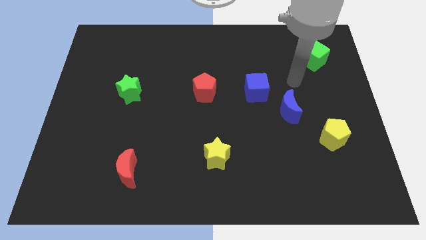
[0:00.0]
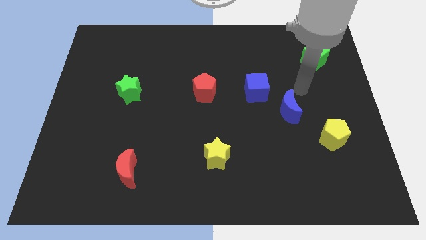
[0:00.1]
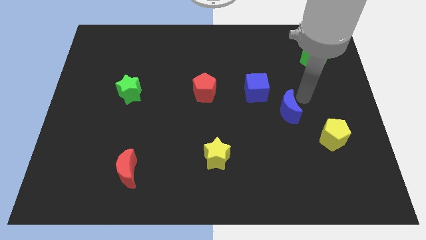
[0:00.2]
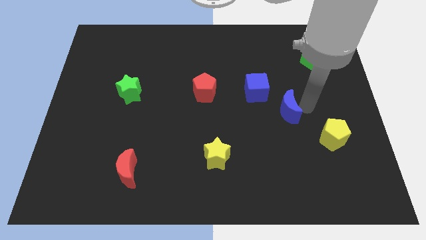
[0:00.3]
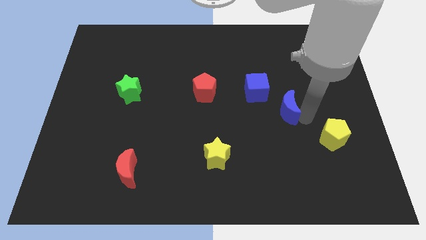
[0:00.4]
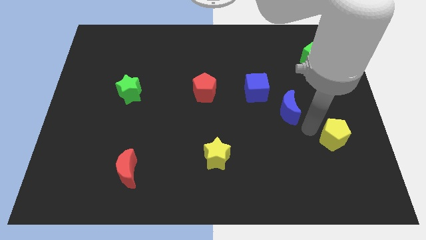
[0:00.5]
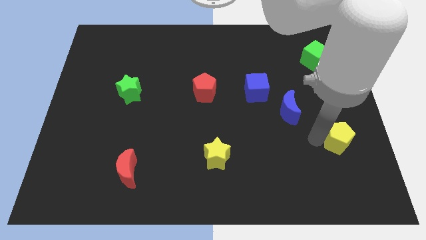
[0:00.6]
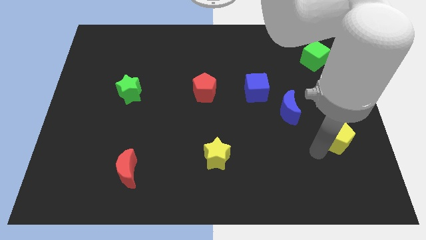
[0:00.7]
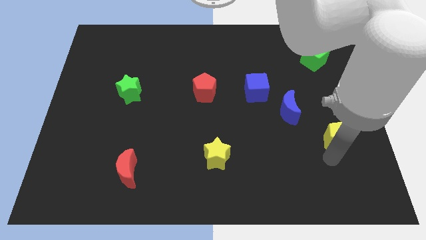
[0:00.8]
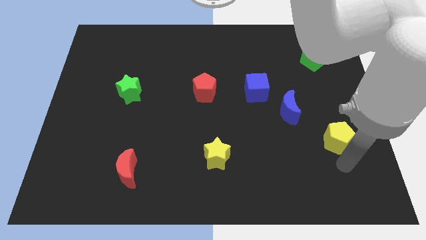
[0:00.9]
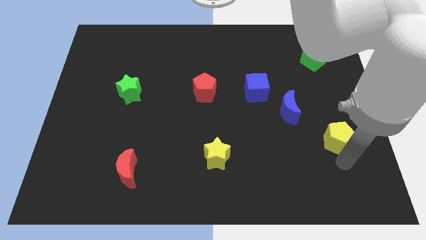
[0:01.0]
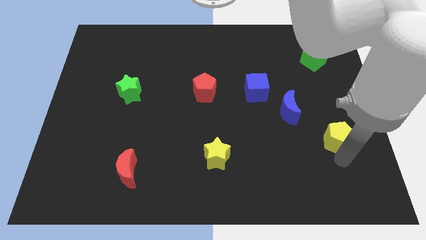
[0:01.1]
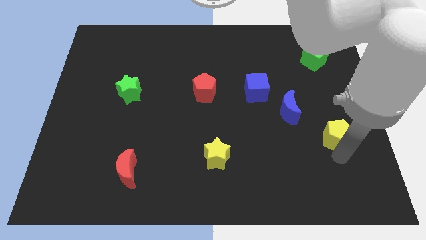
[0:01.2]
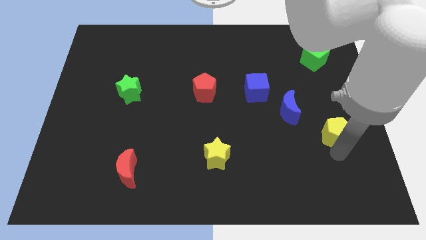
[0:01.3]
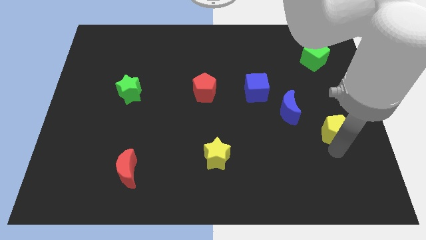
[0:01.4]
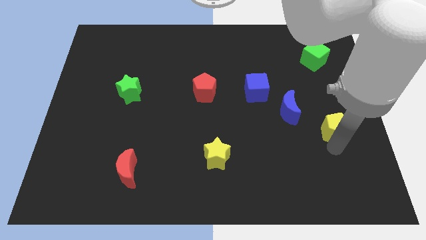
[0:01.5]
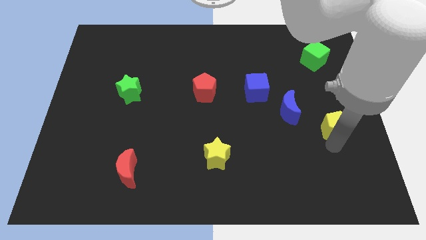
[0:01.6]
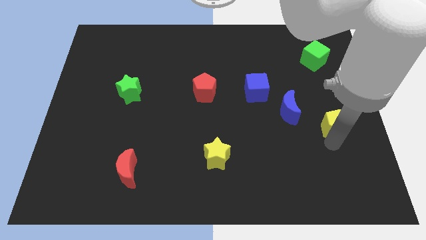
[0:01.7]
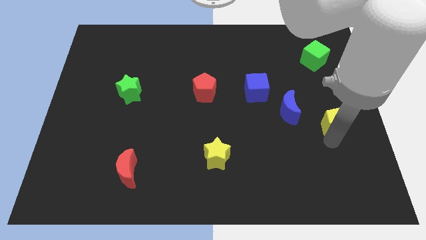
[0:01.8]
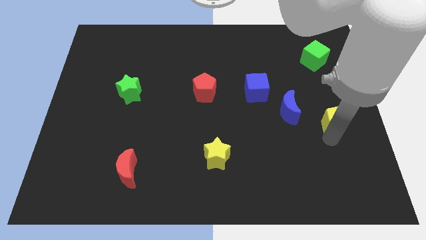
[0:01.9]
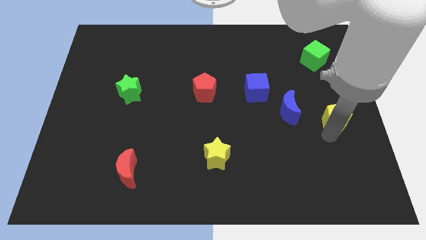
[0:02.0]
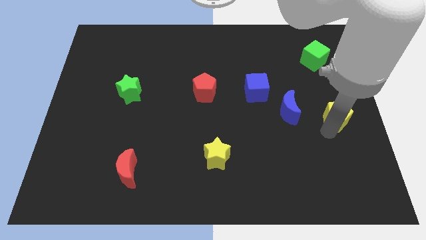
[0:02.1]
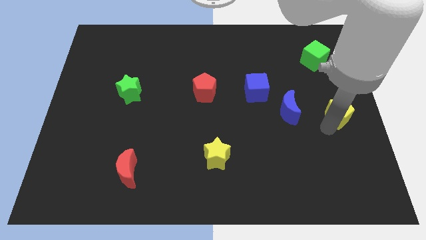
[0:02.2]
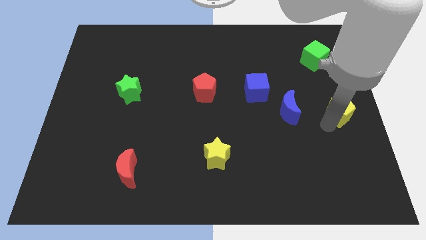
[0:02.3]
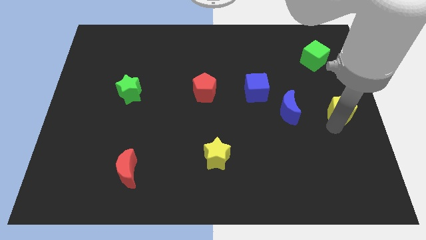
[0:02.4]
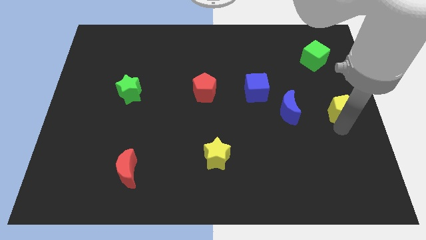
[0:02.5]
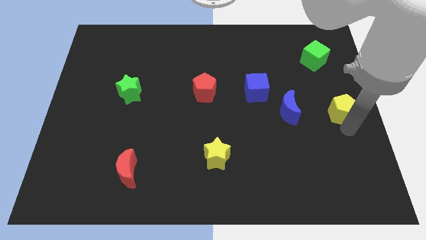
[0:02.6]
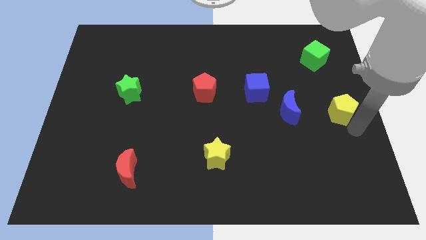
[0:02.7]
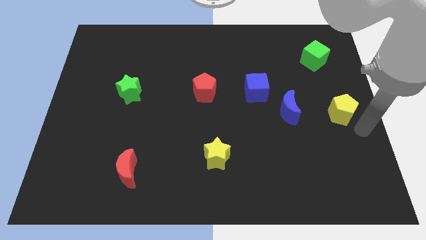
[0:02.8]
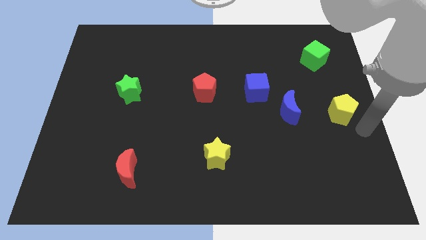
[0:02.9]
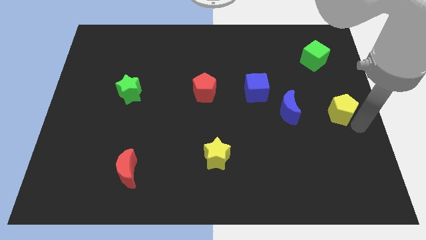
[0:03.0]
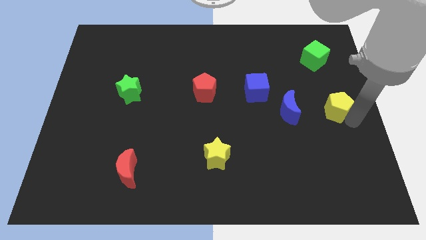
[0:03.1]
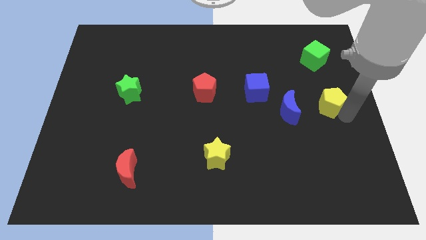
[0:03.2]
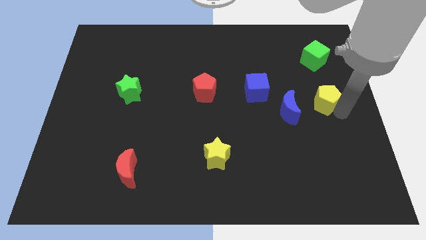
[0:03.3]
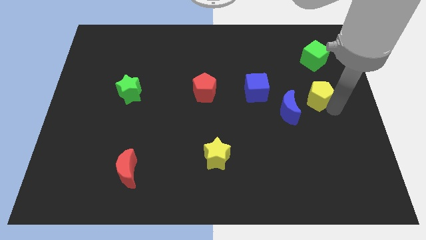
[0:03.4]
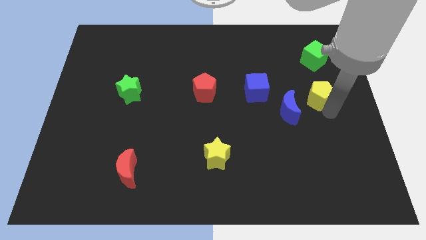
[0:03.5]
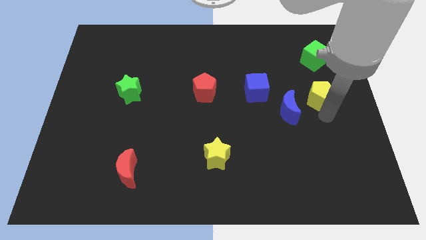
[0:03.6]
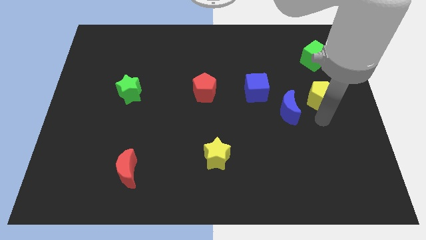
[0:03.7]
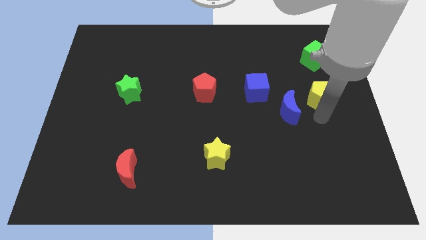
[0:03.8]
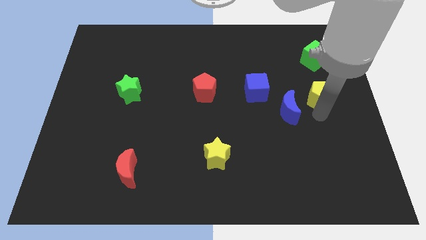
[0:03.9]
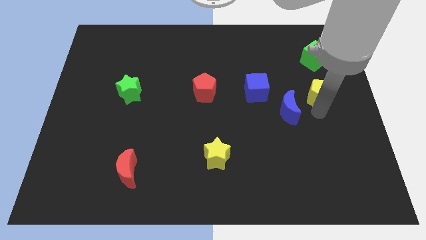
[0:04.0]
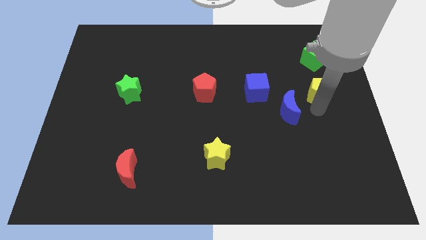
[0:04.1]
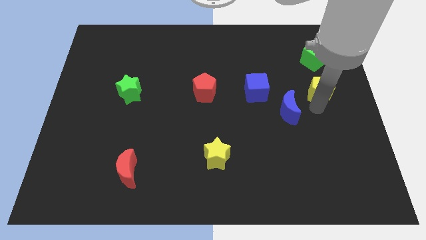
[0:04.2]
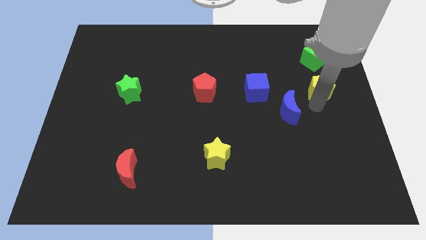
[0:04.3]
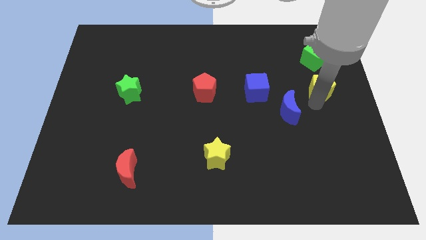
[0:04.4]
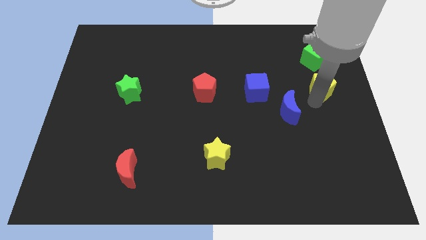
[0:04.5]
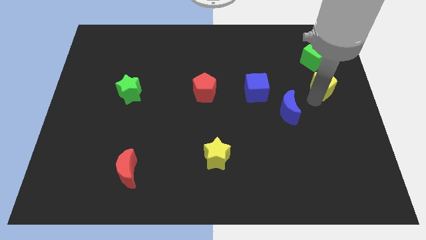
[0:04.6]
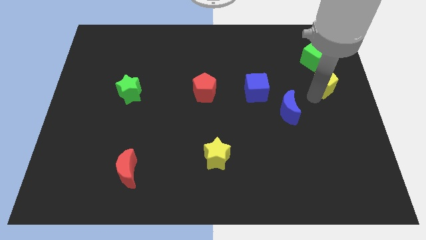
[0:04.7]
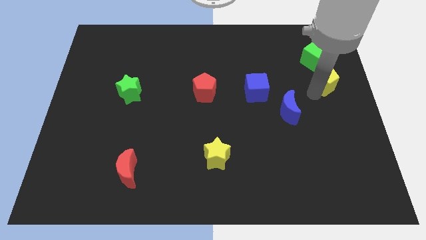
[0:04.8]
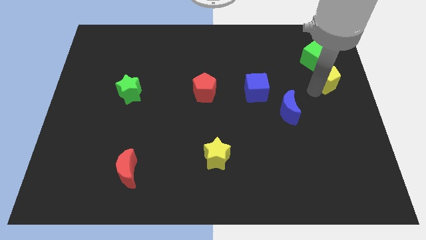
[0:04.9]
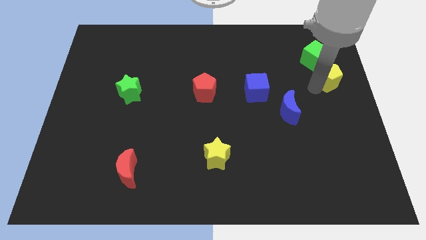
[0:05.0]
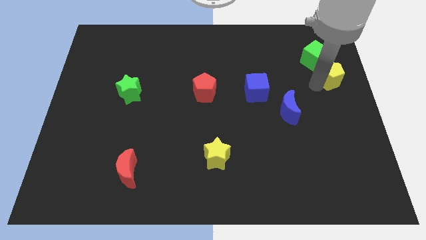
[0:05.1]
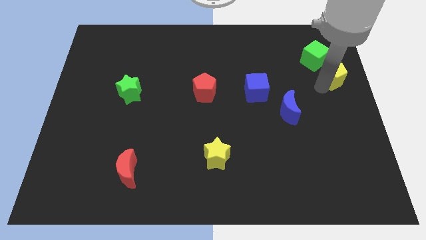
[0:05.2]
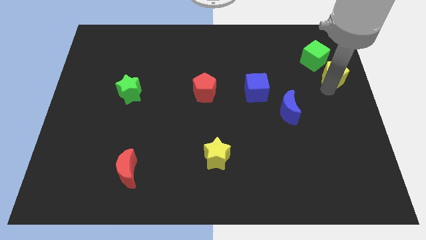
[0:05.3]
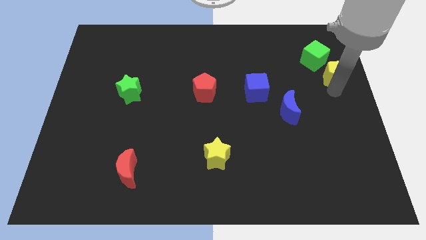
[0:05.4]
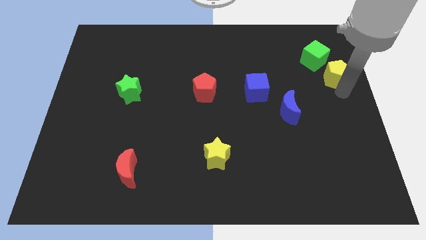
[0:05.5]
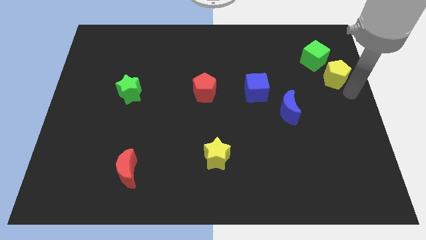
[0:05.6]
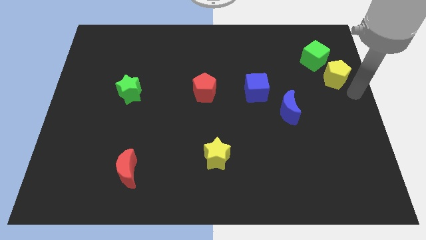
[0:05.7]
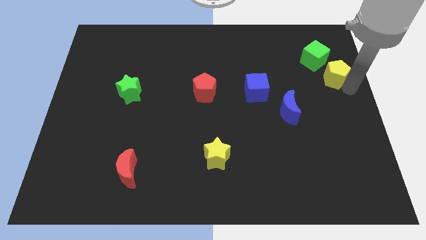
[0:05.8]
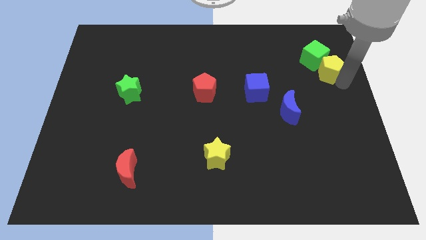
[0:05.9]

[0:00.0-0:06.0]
move the yellow pentagon towards the green cube

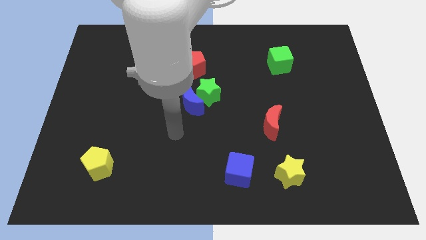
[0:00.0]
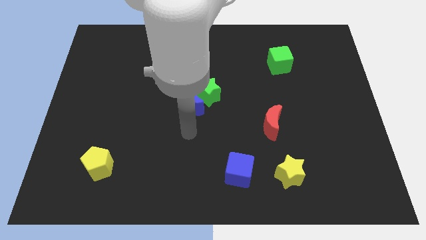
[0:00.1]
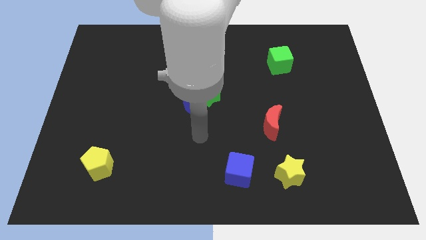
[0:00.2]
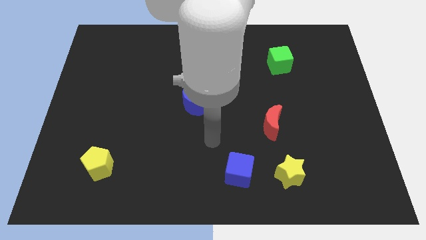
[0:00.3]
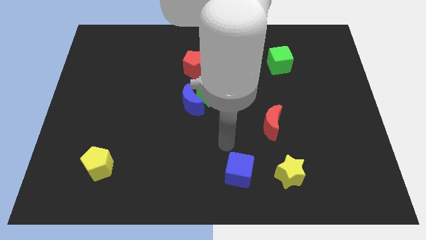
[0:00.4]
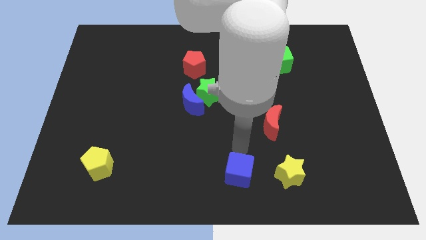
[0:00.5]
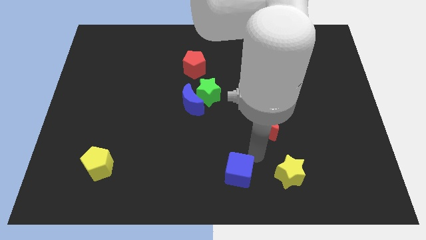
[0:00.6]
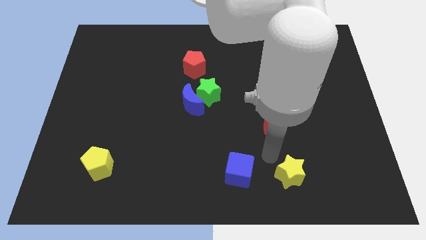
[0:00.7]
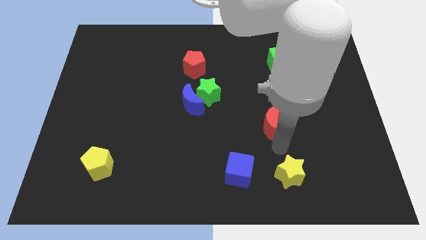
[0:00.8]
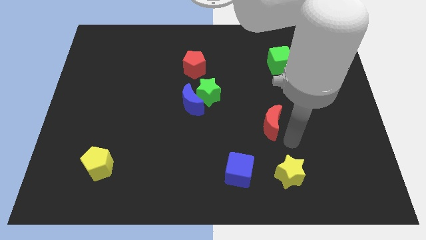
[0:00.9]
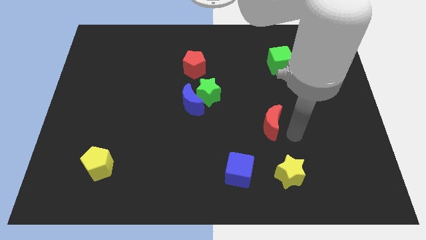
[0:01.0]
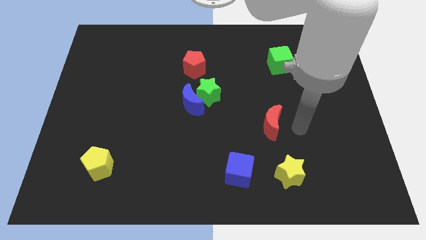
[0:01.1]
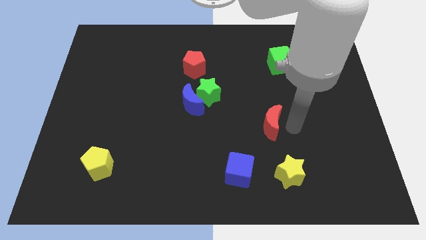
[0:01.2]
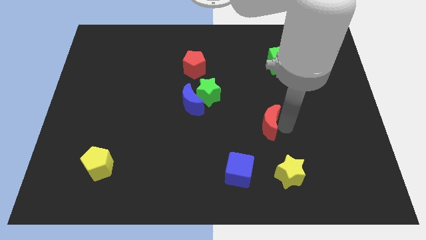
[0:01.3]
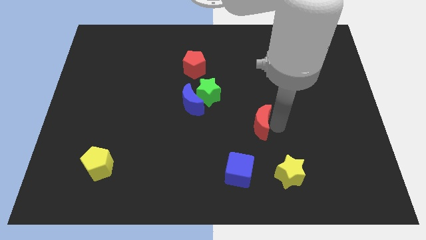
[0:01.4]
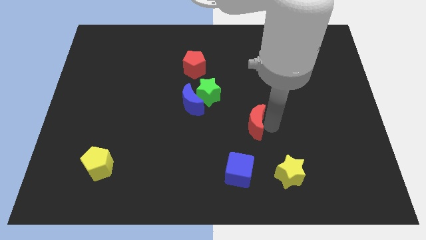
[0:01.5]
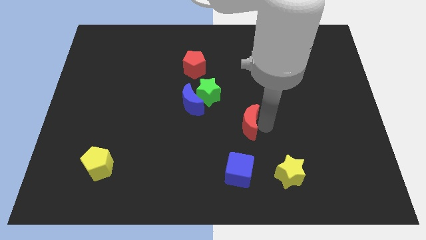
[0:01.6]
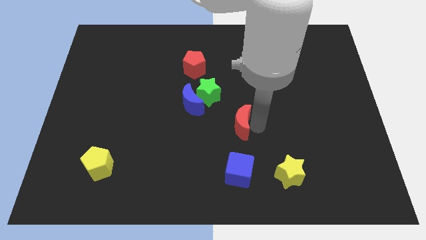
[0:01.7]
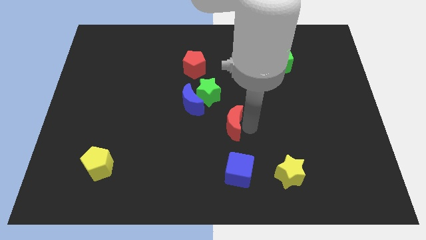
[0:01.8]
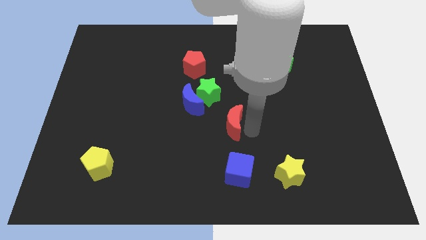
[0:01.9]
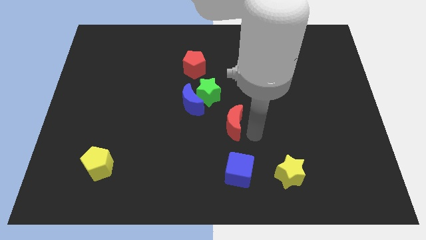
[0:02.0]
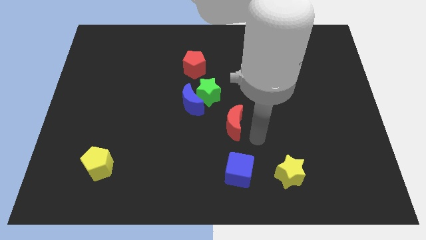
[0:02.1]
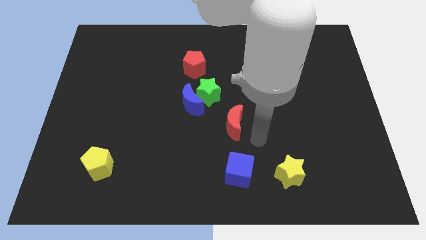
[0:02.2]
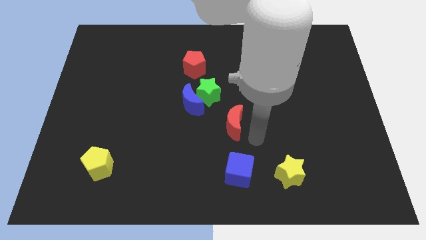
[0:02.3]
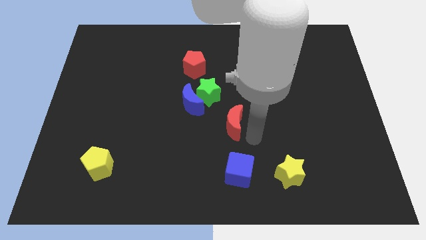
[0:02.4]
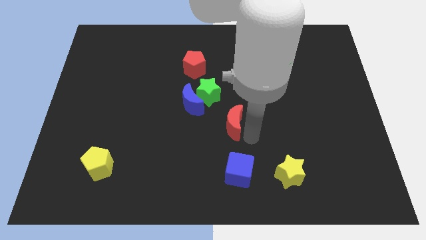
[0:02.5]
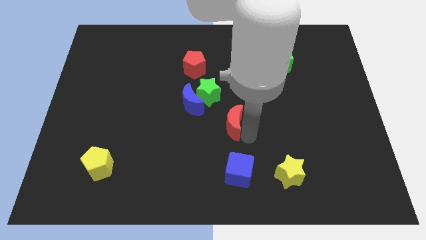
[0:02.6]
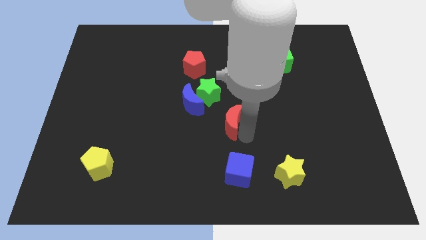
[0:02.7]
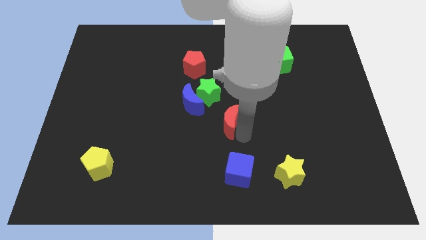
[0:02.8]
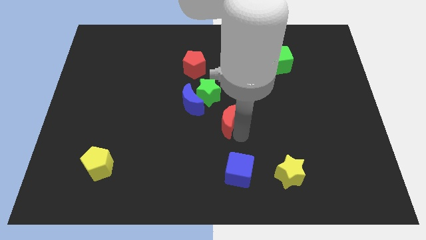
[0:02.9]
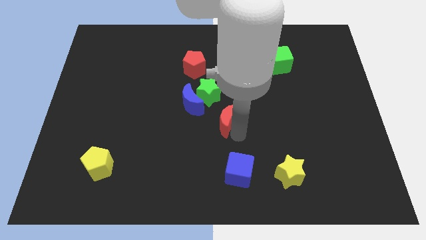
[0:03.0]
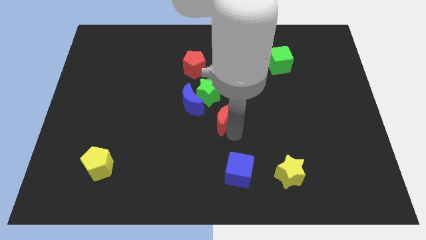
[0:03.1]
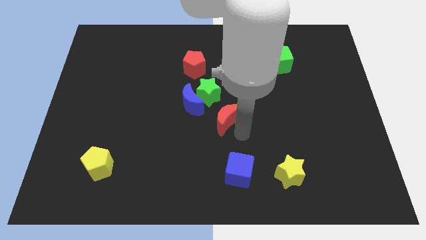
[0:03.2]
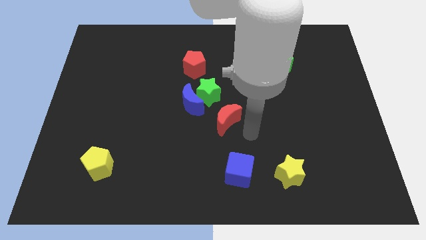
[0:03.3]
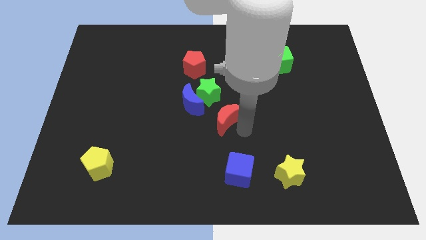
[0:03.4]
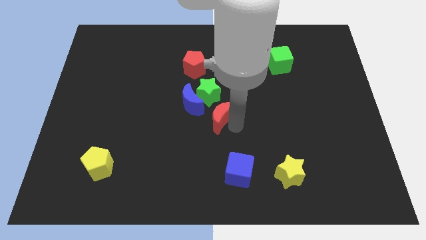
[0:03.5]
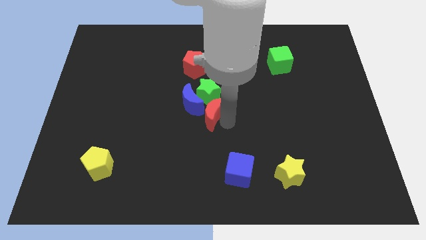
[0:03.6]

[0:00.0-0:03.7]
slide the red moon close to the blue moon
